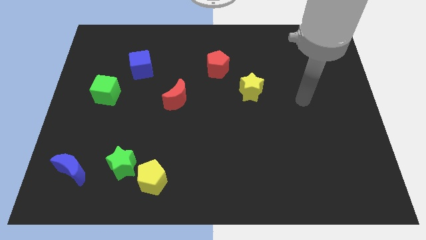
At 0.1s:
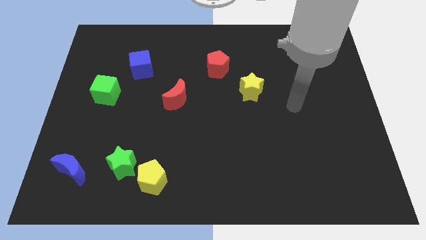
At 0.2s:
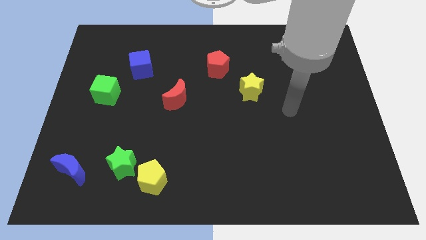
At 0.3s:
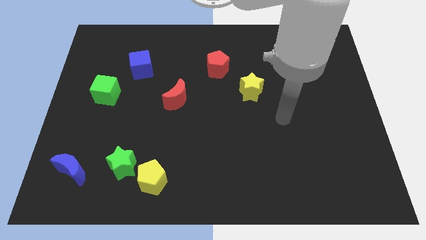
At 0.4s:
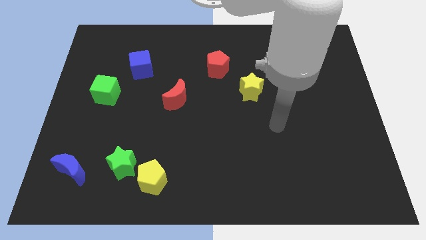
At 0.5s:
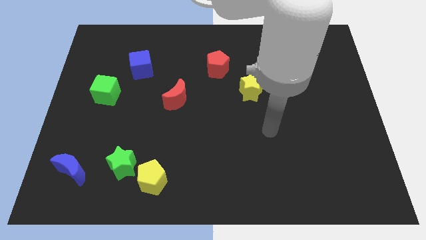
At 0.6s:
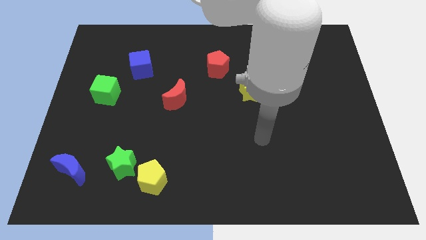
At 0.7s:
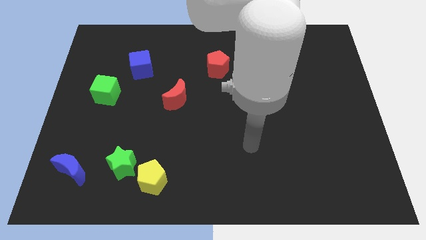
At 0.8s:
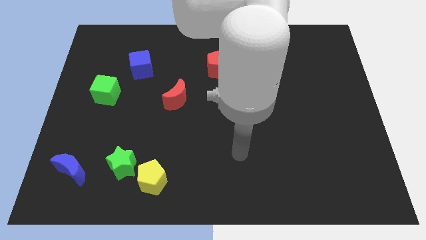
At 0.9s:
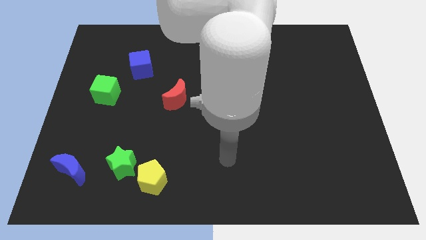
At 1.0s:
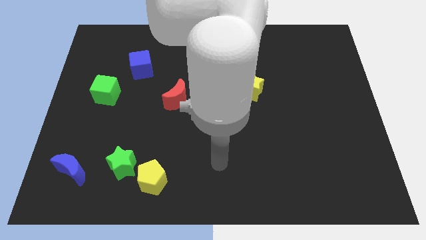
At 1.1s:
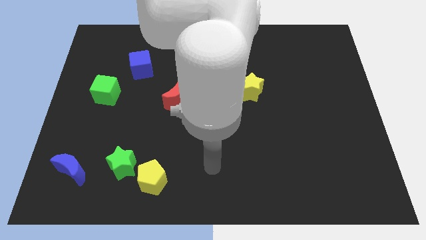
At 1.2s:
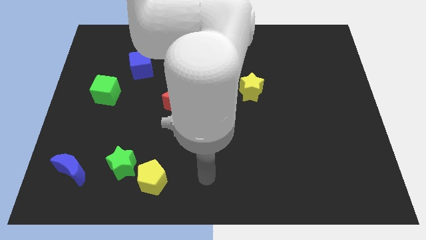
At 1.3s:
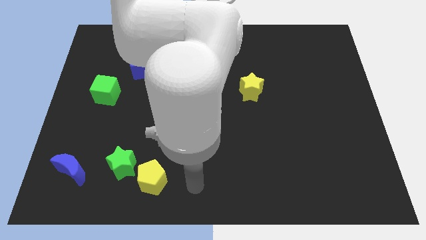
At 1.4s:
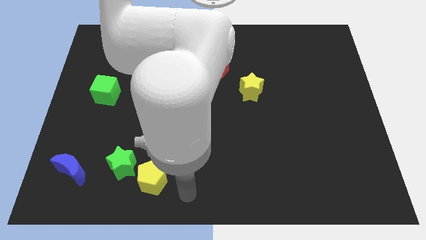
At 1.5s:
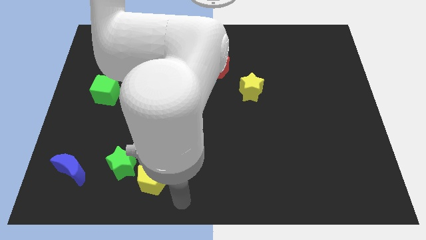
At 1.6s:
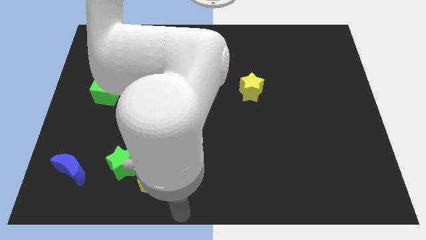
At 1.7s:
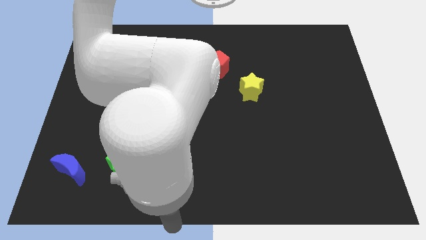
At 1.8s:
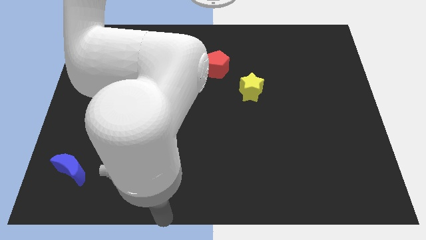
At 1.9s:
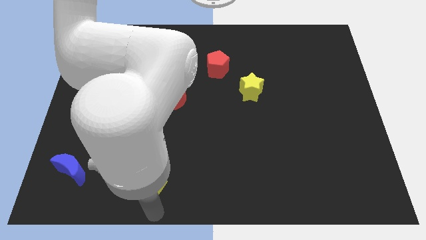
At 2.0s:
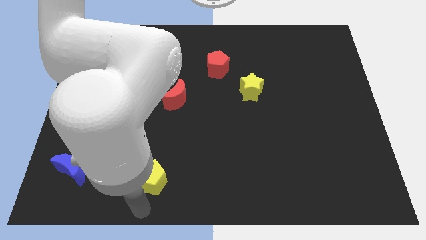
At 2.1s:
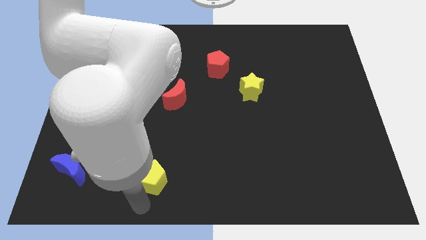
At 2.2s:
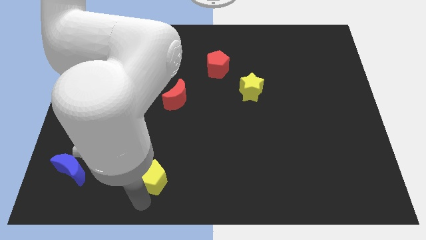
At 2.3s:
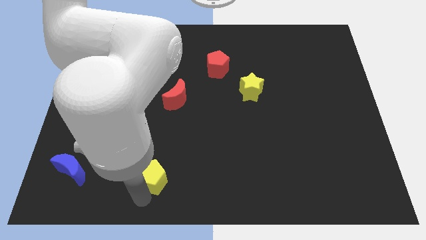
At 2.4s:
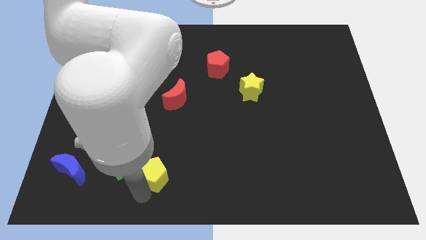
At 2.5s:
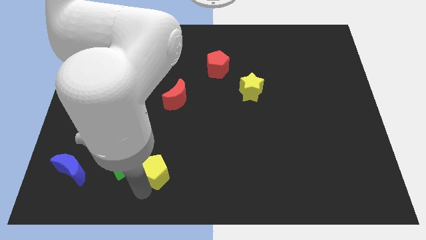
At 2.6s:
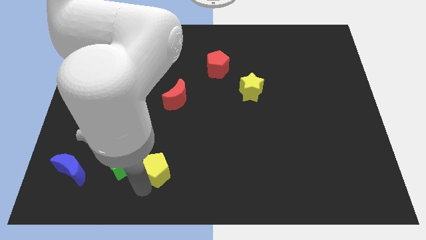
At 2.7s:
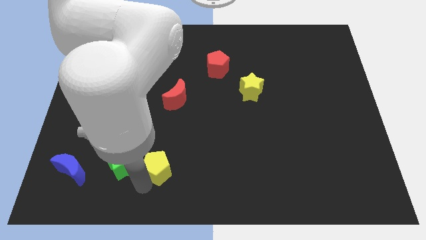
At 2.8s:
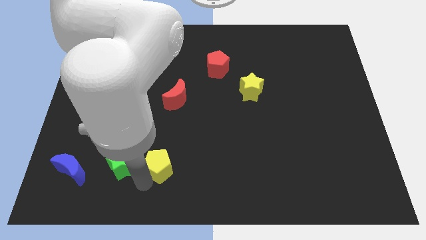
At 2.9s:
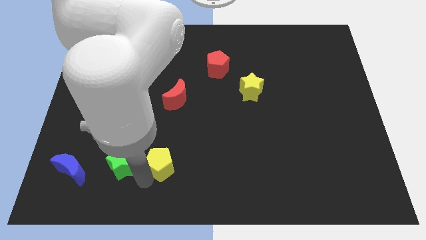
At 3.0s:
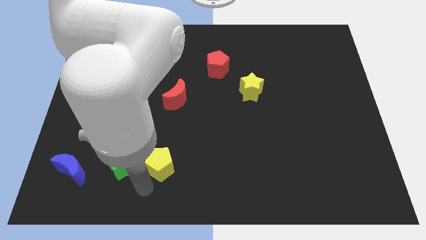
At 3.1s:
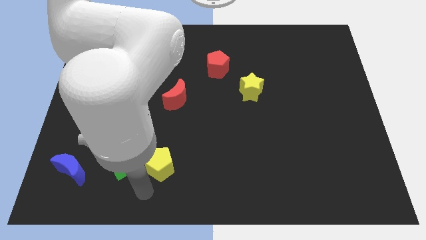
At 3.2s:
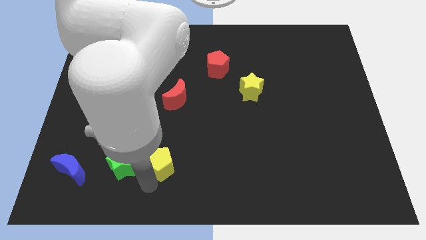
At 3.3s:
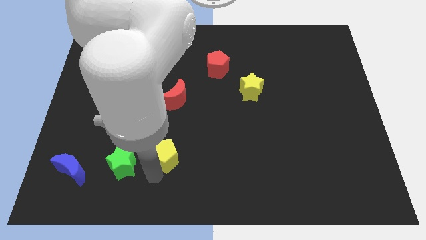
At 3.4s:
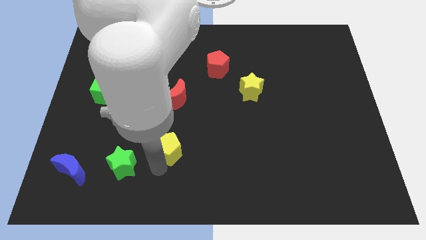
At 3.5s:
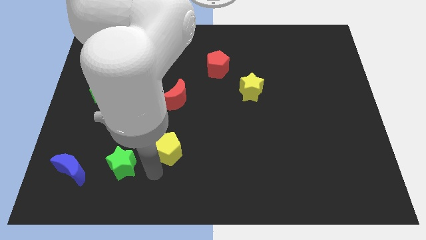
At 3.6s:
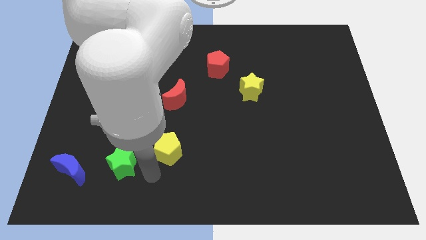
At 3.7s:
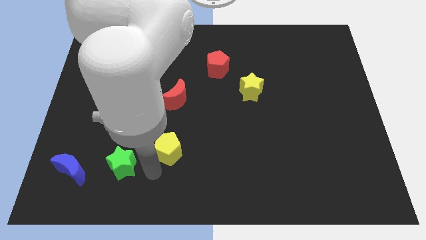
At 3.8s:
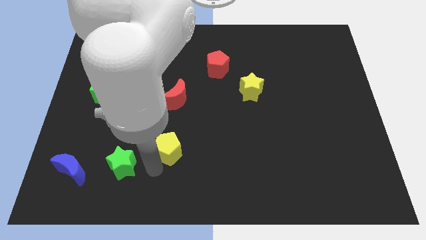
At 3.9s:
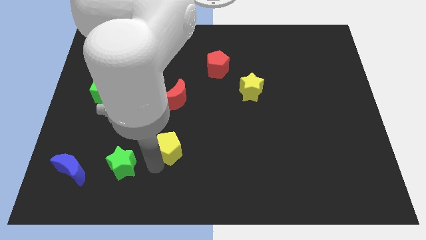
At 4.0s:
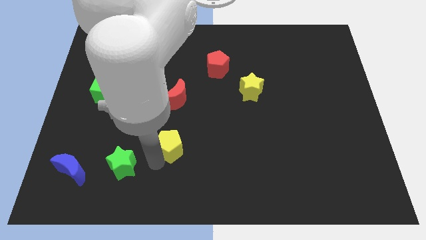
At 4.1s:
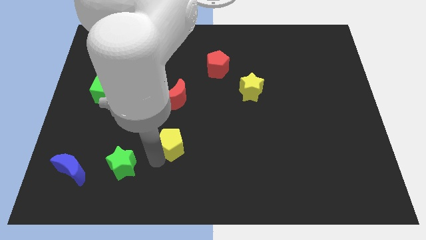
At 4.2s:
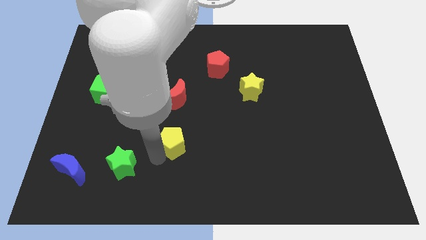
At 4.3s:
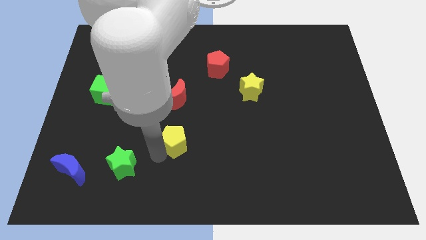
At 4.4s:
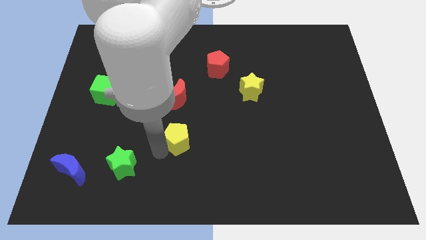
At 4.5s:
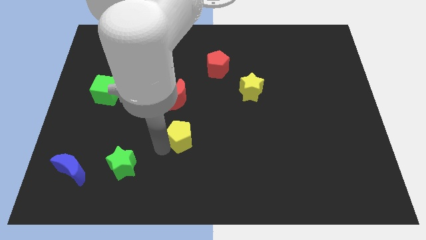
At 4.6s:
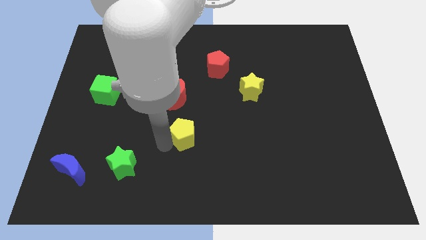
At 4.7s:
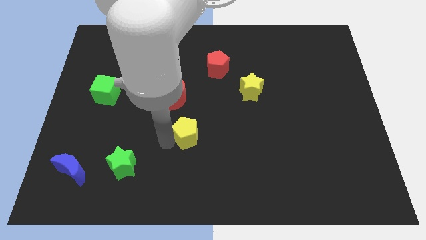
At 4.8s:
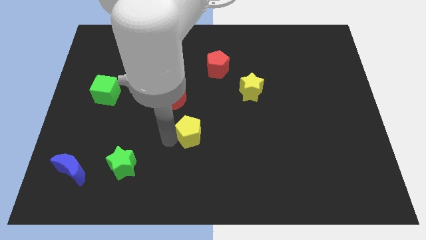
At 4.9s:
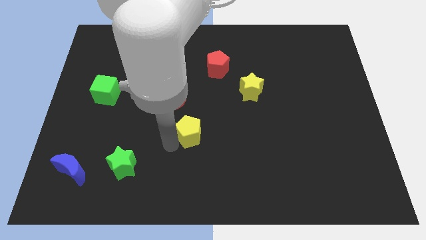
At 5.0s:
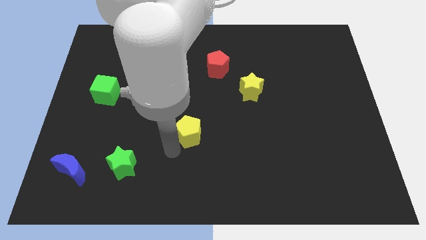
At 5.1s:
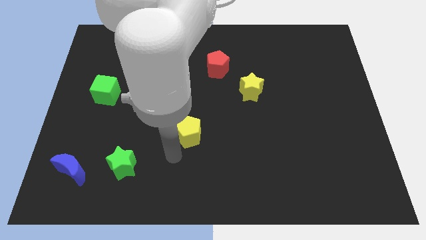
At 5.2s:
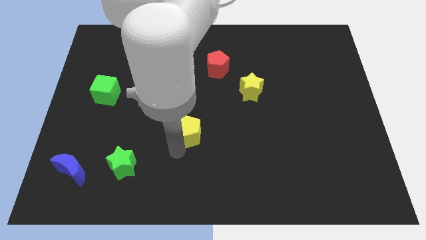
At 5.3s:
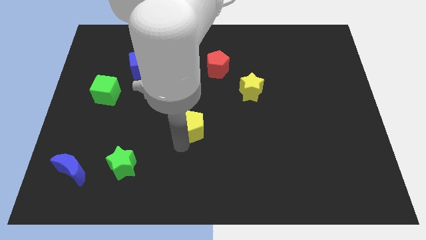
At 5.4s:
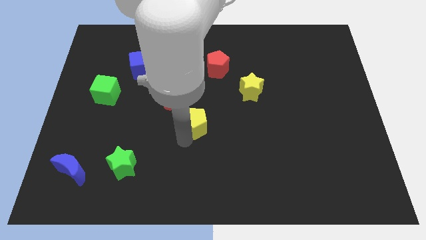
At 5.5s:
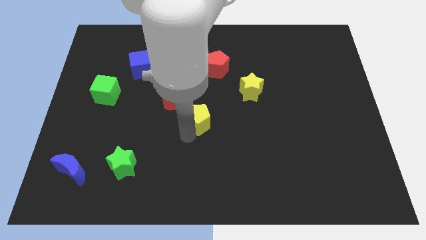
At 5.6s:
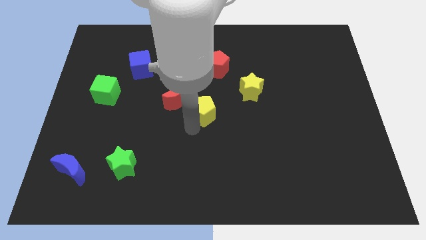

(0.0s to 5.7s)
slide the yellow pentagon just right of the red moon

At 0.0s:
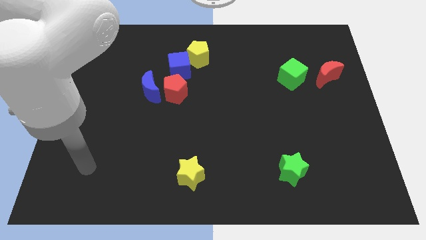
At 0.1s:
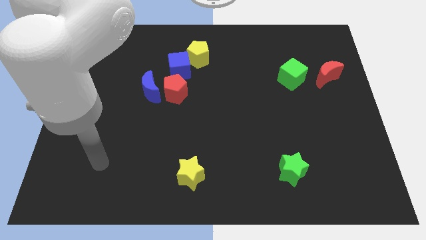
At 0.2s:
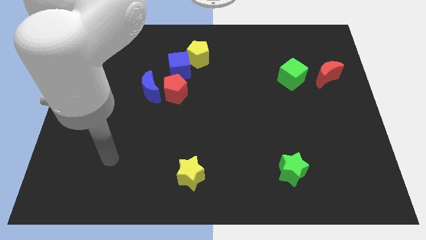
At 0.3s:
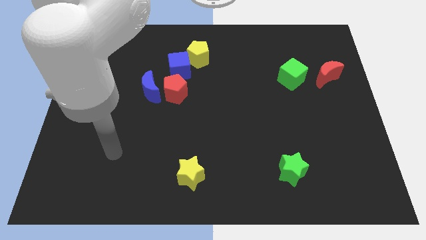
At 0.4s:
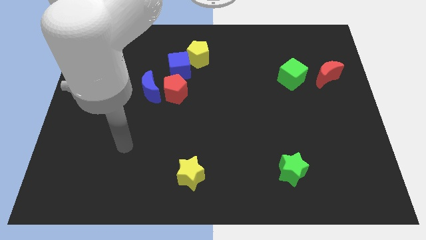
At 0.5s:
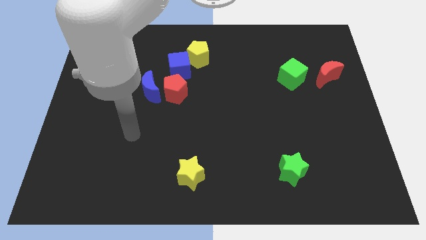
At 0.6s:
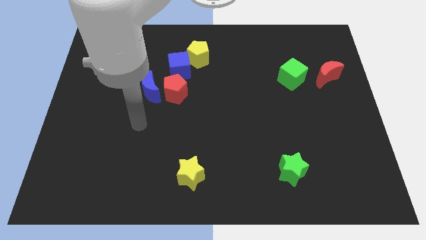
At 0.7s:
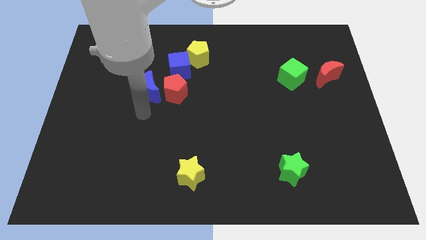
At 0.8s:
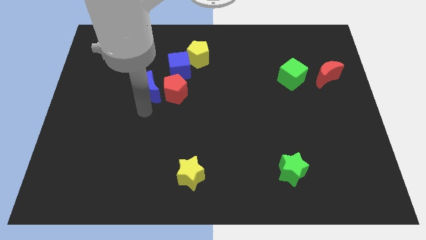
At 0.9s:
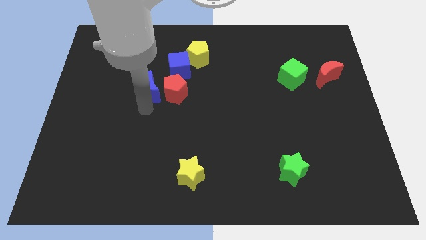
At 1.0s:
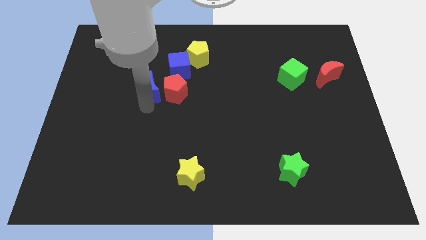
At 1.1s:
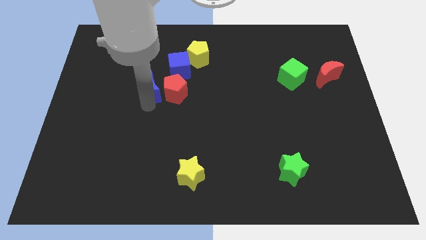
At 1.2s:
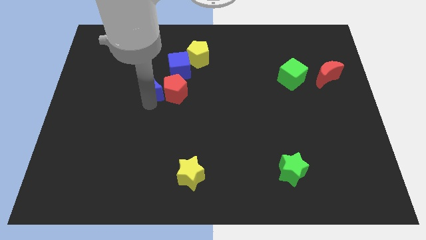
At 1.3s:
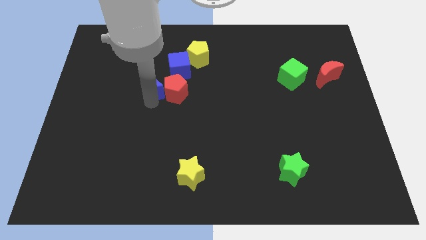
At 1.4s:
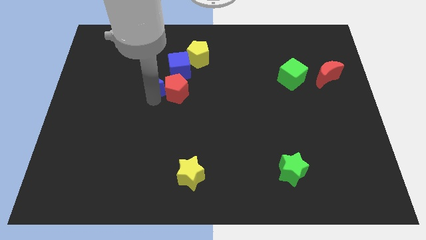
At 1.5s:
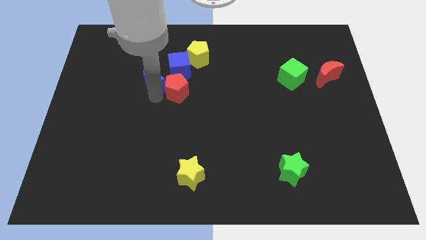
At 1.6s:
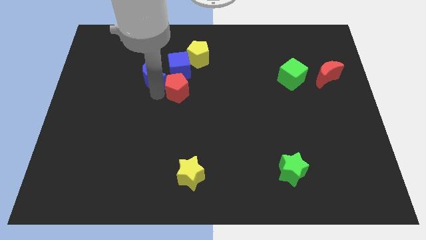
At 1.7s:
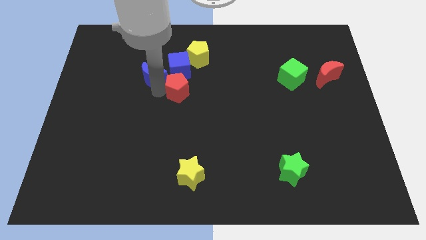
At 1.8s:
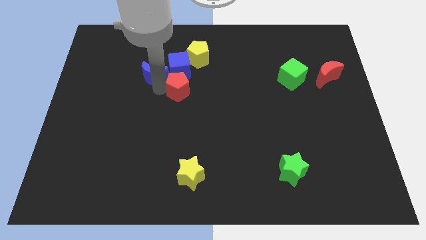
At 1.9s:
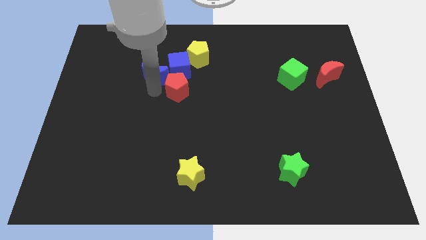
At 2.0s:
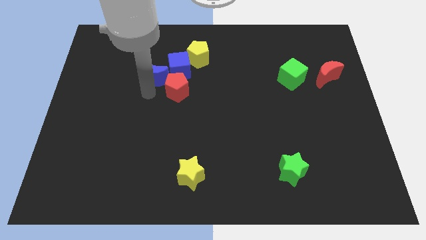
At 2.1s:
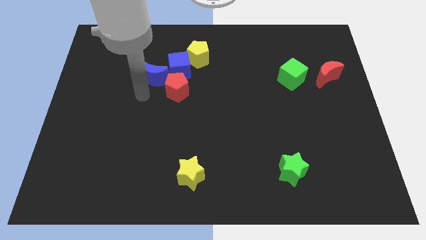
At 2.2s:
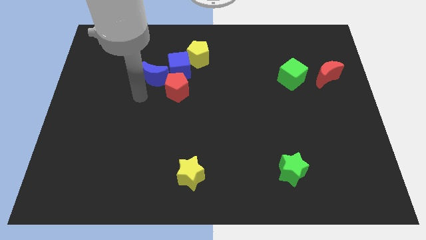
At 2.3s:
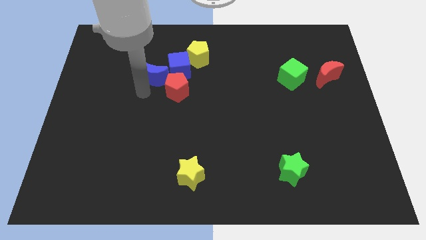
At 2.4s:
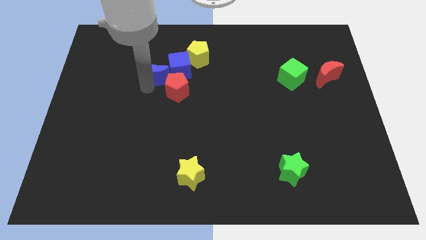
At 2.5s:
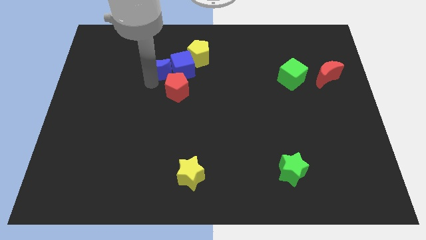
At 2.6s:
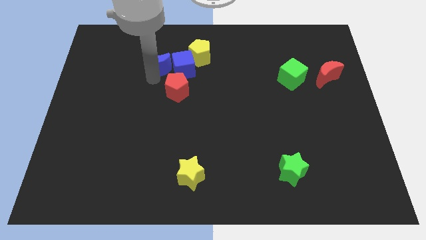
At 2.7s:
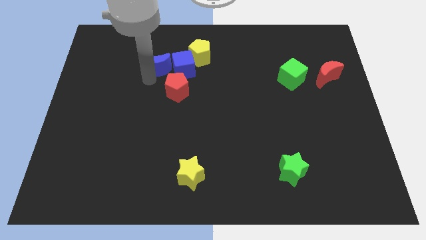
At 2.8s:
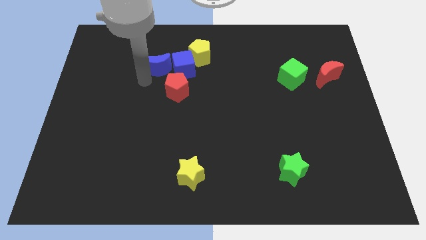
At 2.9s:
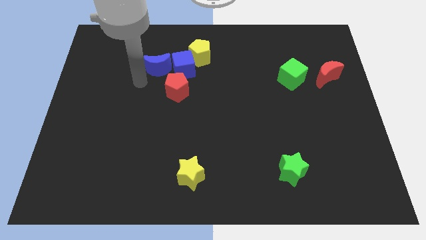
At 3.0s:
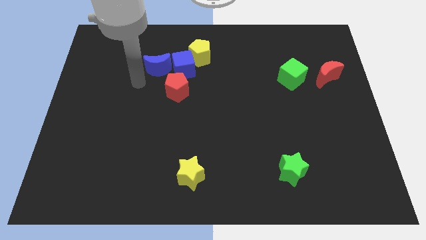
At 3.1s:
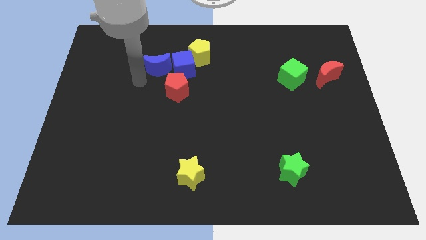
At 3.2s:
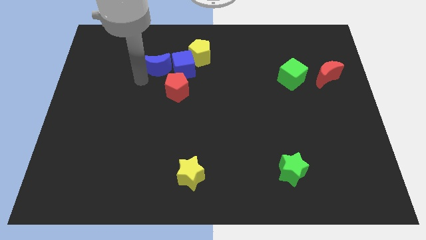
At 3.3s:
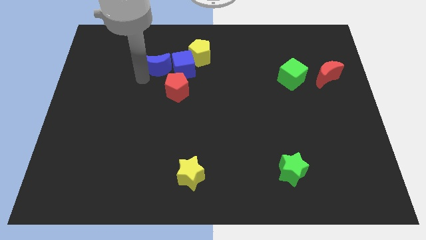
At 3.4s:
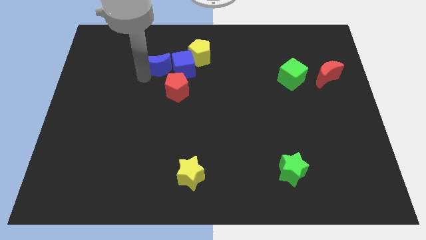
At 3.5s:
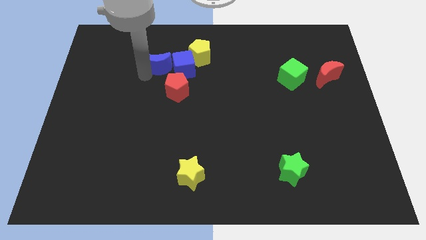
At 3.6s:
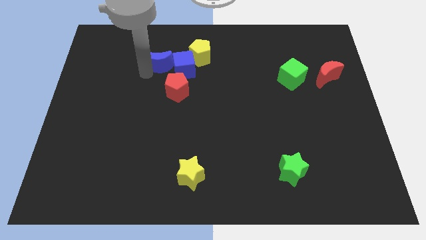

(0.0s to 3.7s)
slide the blue moon to the top side of the red pentagon
